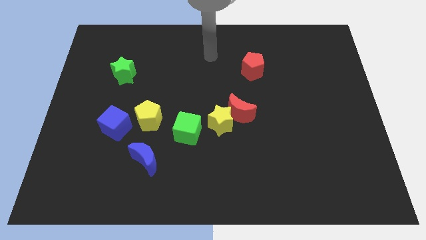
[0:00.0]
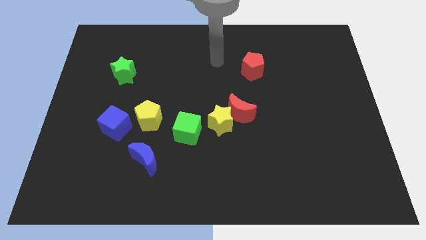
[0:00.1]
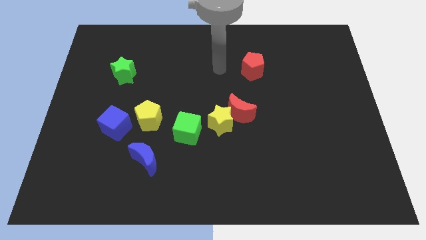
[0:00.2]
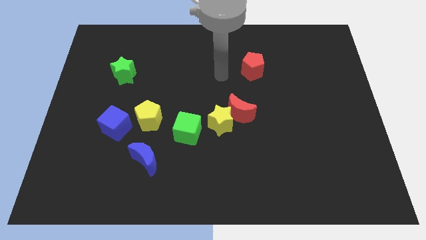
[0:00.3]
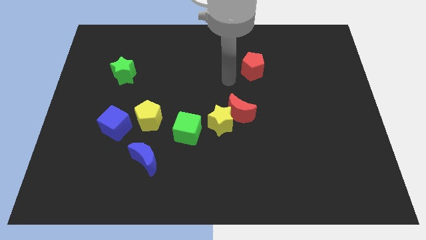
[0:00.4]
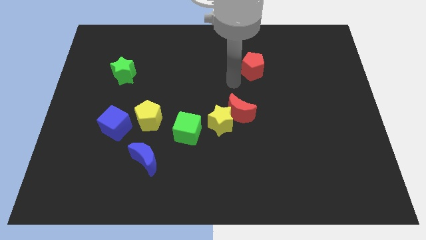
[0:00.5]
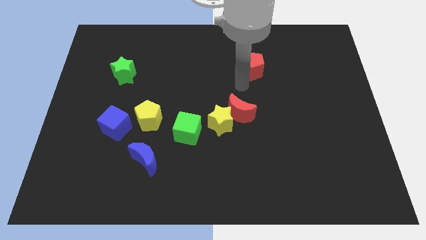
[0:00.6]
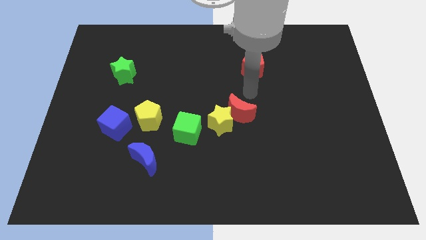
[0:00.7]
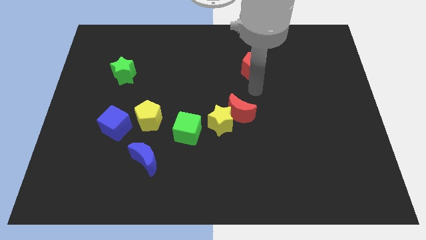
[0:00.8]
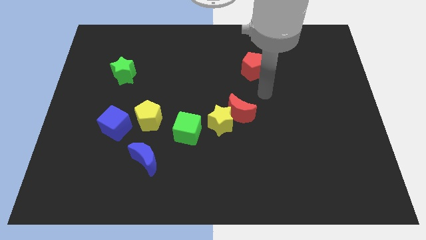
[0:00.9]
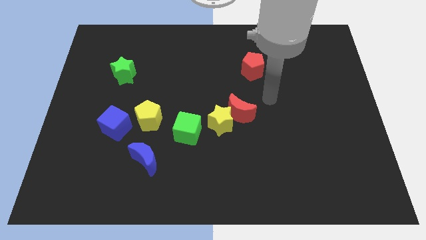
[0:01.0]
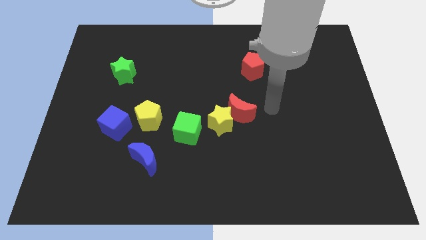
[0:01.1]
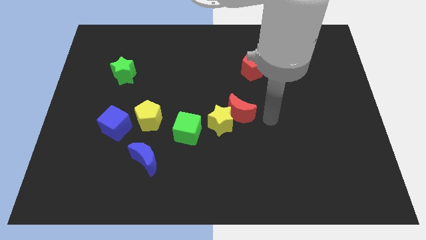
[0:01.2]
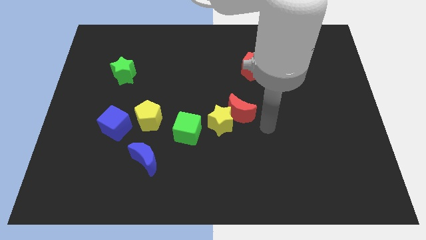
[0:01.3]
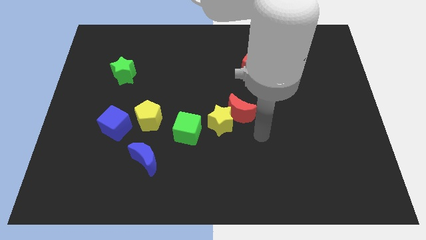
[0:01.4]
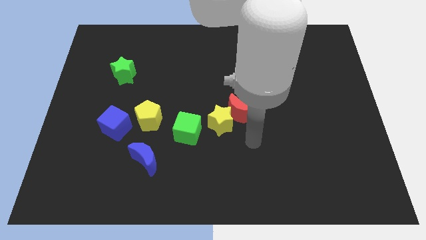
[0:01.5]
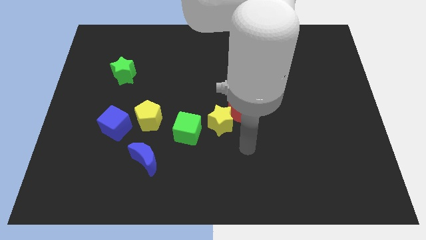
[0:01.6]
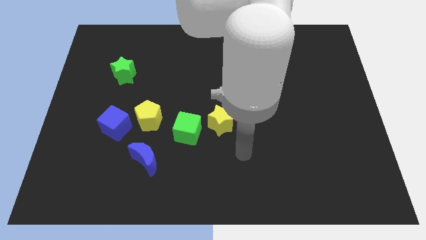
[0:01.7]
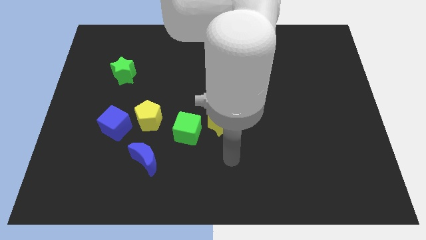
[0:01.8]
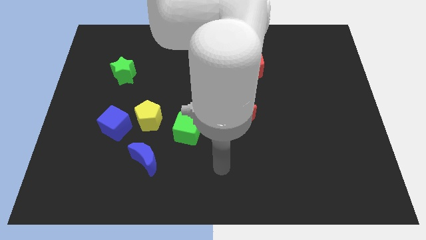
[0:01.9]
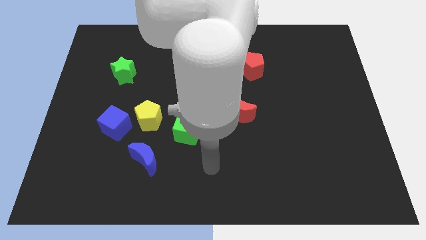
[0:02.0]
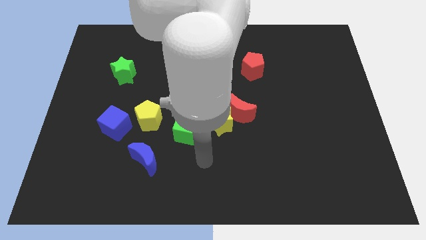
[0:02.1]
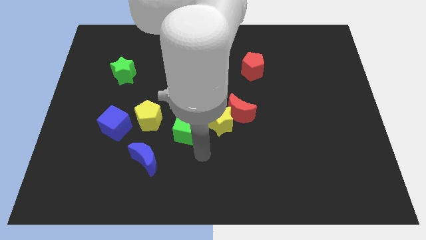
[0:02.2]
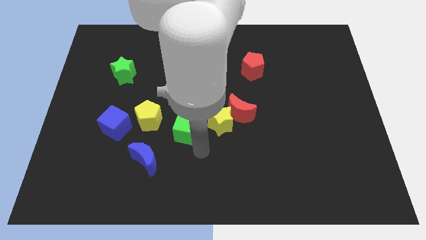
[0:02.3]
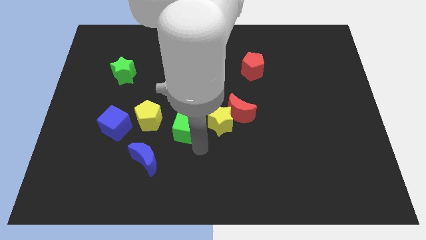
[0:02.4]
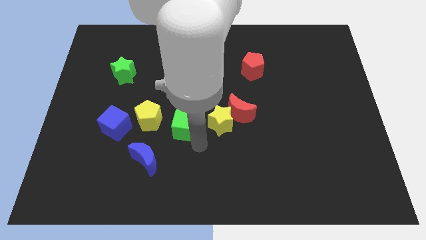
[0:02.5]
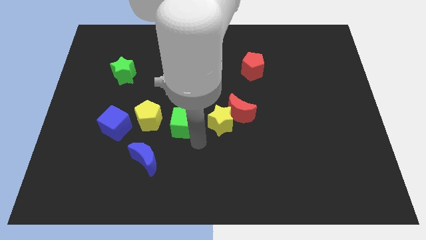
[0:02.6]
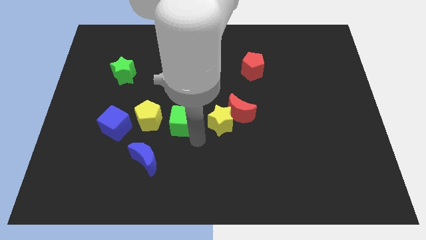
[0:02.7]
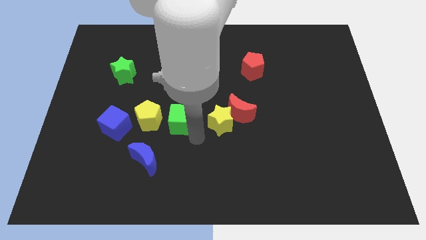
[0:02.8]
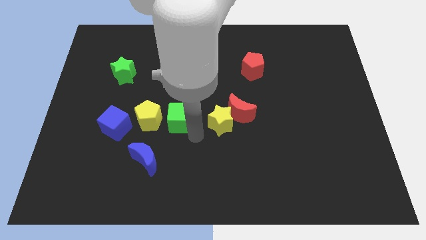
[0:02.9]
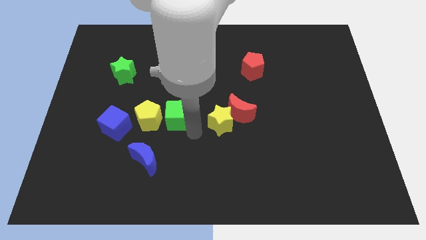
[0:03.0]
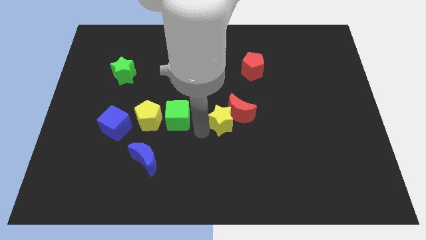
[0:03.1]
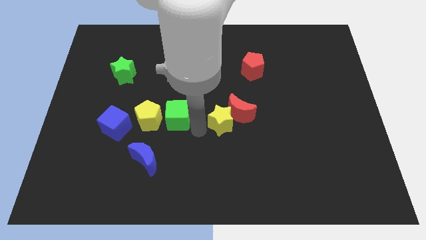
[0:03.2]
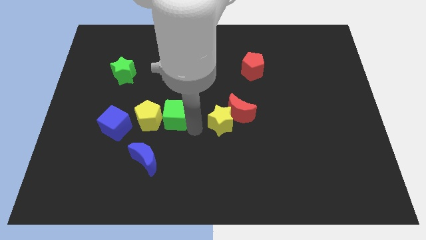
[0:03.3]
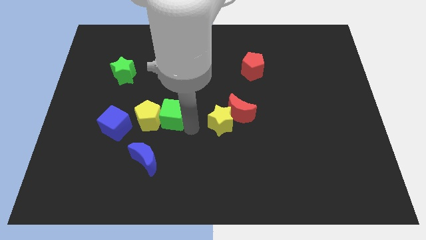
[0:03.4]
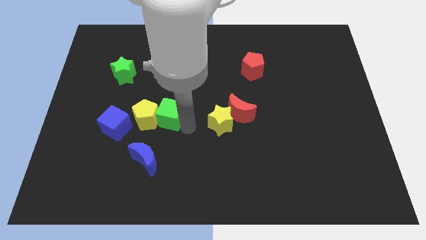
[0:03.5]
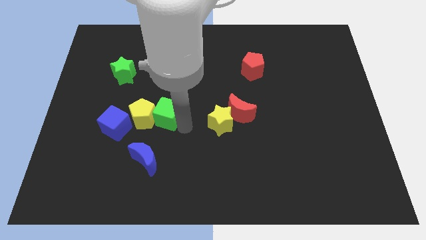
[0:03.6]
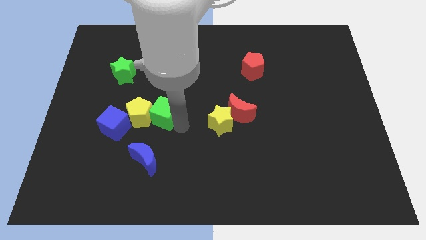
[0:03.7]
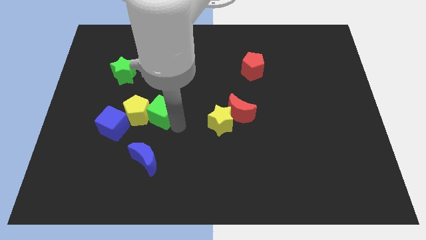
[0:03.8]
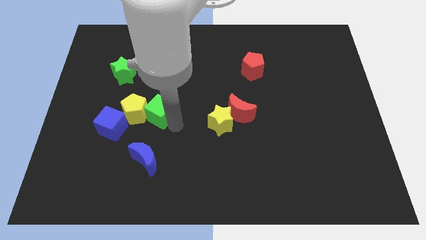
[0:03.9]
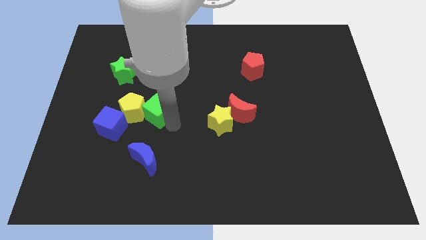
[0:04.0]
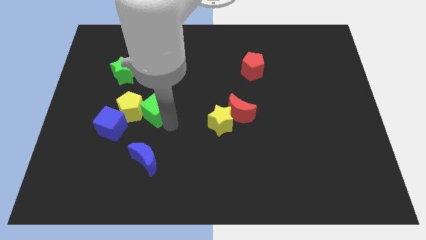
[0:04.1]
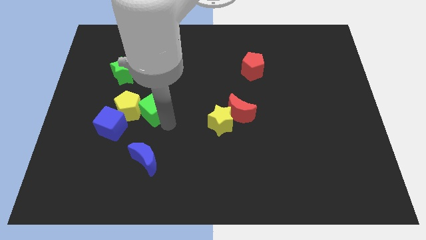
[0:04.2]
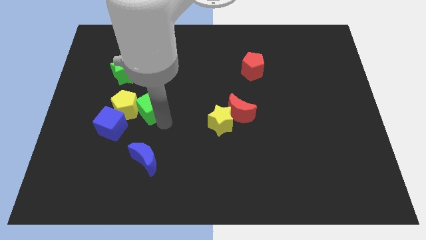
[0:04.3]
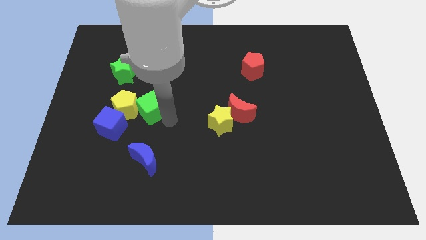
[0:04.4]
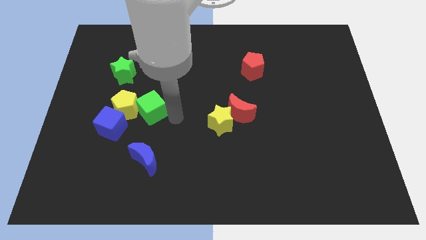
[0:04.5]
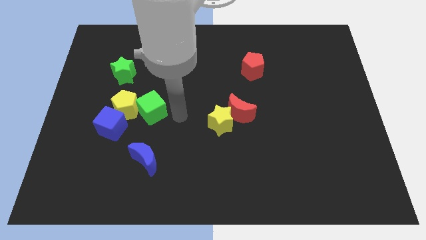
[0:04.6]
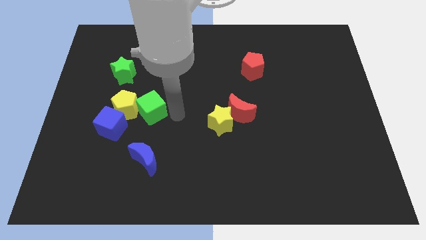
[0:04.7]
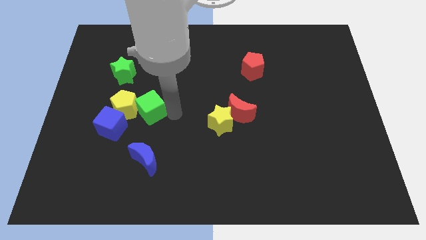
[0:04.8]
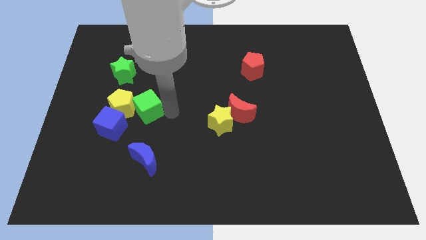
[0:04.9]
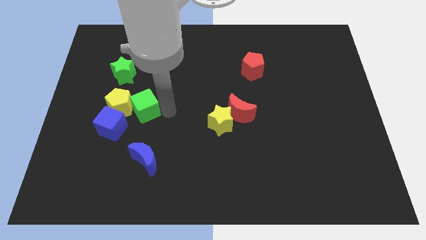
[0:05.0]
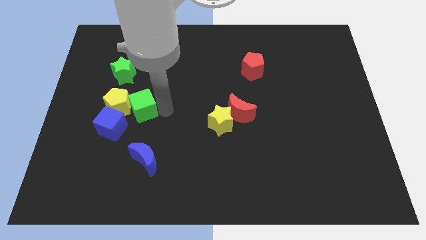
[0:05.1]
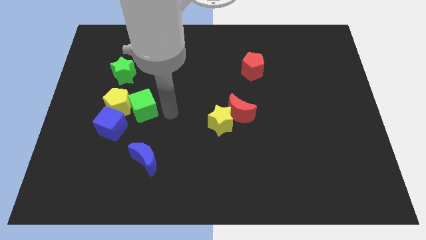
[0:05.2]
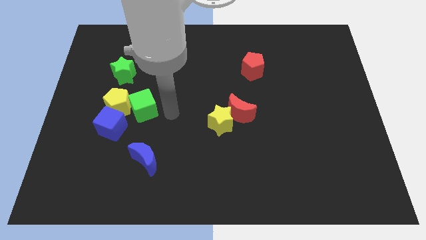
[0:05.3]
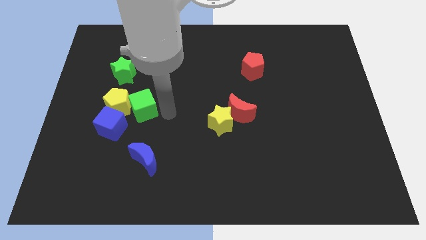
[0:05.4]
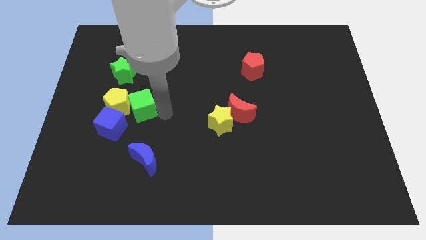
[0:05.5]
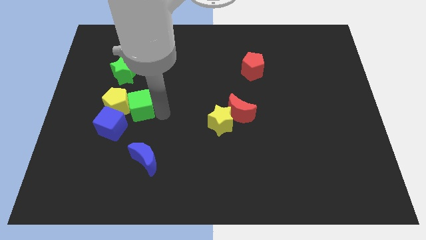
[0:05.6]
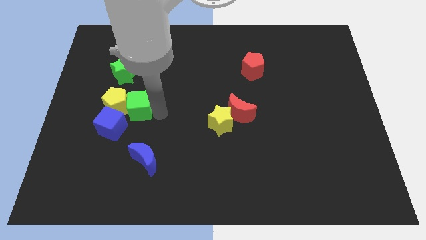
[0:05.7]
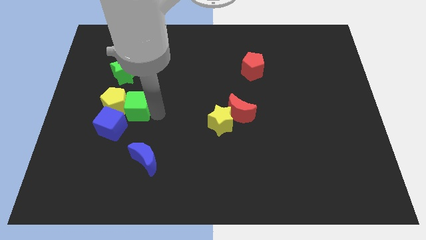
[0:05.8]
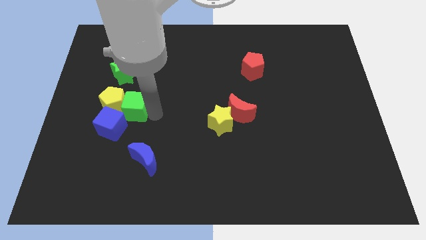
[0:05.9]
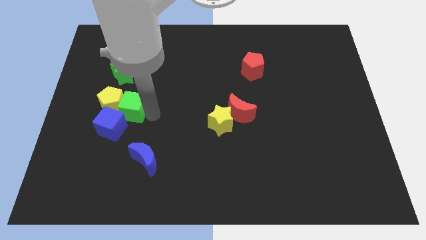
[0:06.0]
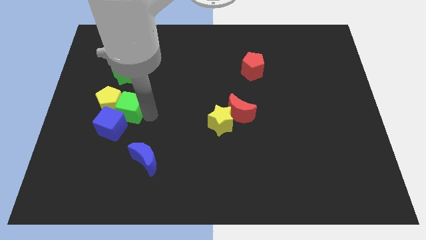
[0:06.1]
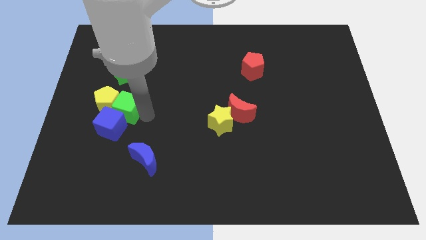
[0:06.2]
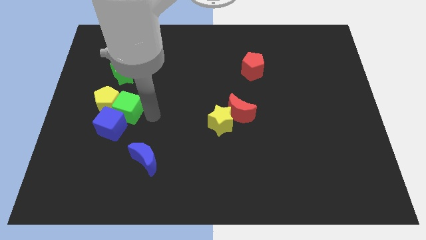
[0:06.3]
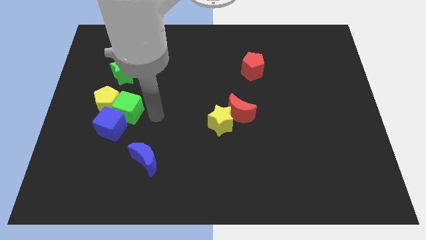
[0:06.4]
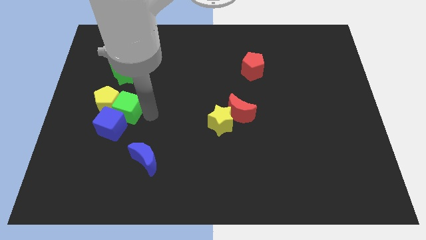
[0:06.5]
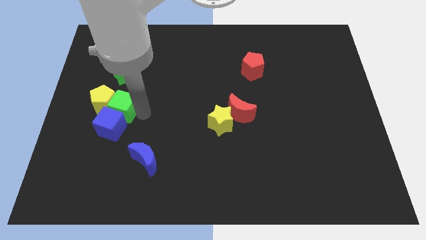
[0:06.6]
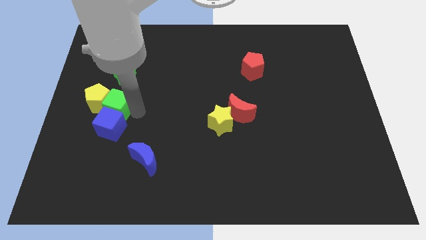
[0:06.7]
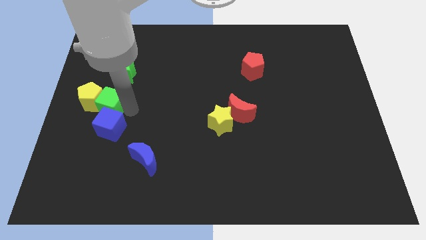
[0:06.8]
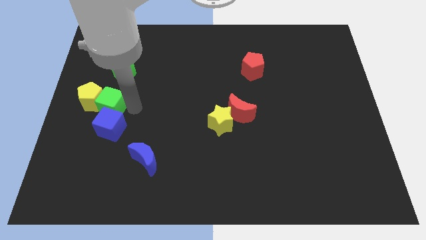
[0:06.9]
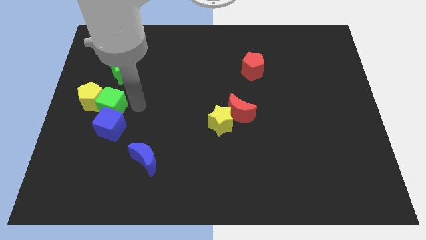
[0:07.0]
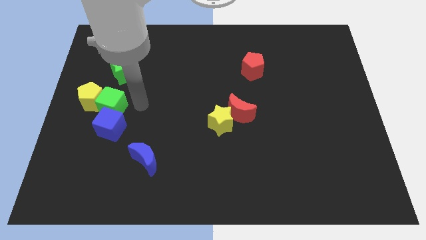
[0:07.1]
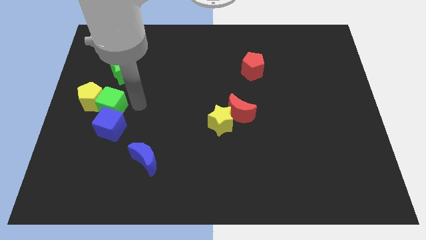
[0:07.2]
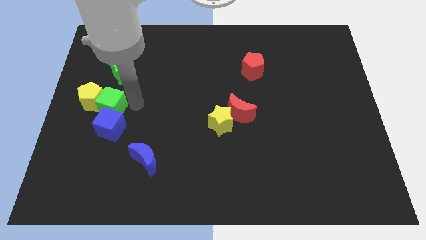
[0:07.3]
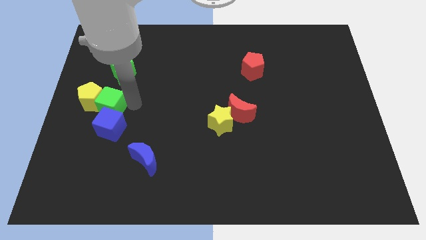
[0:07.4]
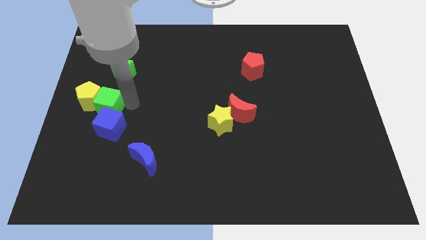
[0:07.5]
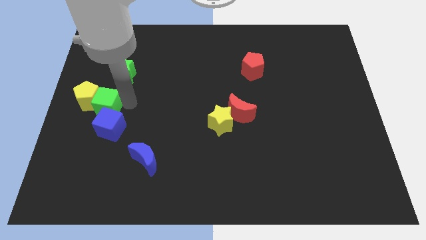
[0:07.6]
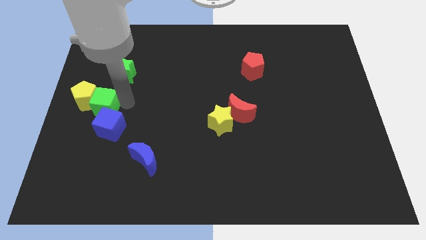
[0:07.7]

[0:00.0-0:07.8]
put the green cube to the left side of the board
